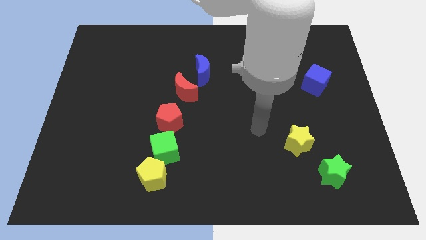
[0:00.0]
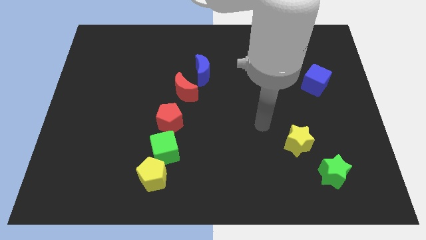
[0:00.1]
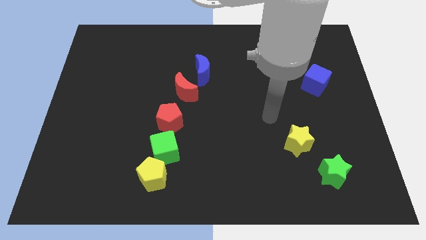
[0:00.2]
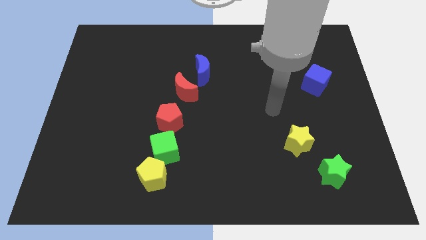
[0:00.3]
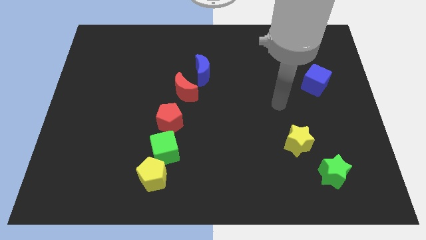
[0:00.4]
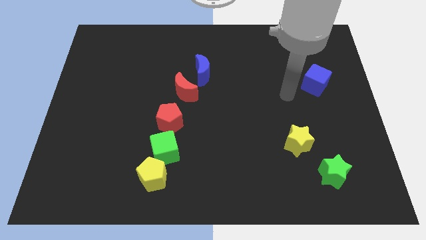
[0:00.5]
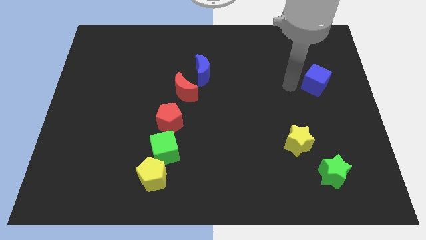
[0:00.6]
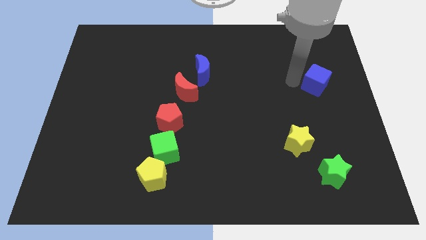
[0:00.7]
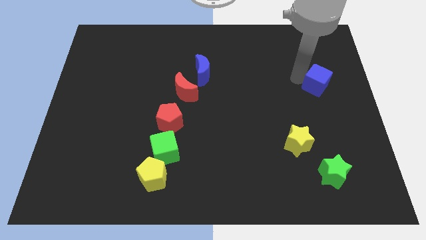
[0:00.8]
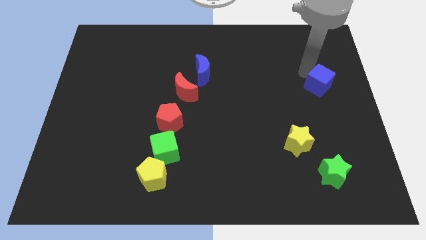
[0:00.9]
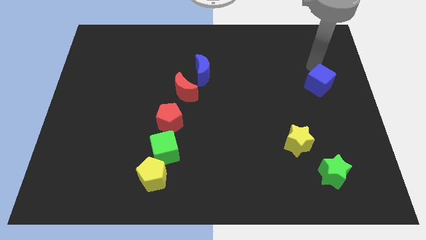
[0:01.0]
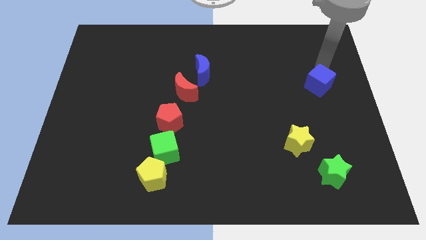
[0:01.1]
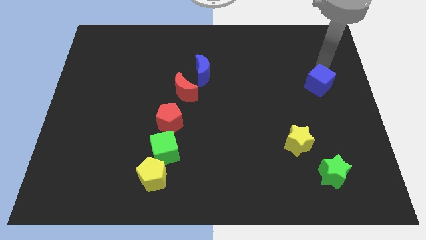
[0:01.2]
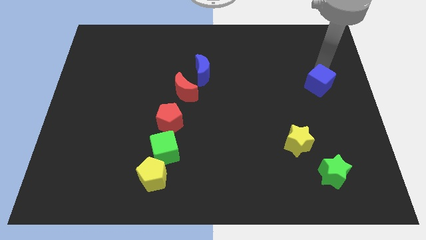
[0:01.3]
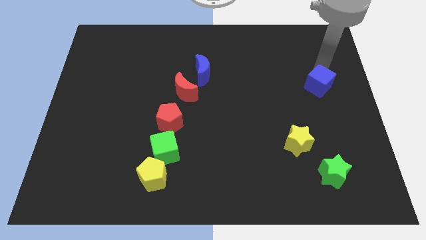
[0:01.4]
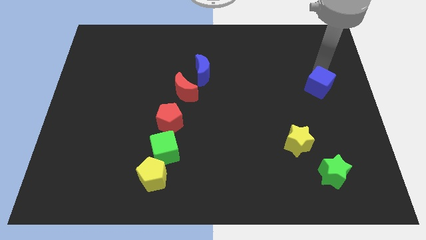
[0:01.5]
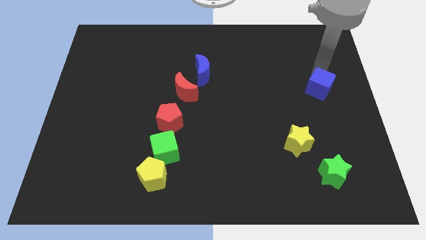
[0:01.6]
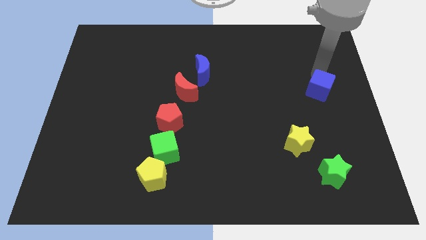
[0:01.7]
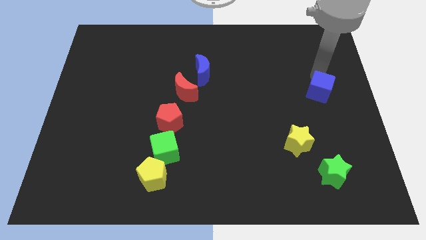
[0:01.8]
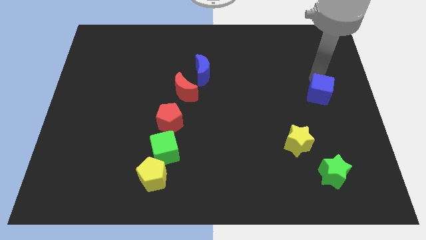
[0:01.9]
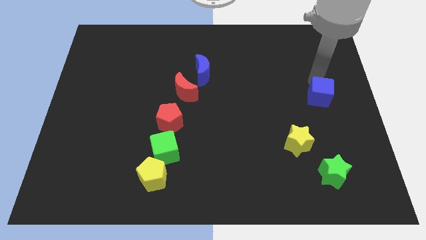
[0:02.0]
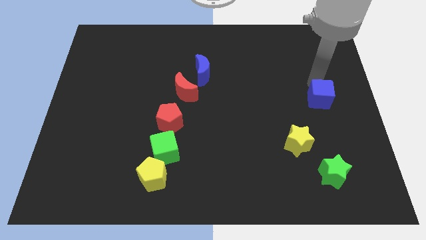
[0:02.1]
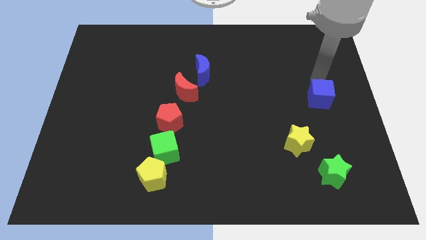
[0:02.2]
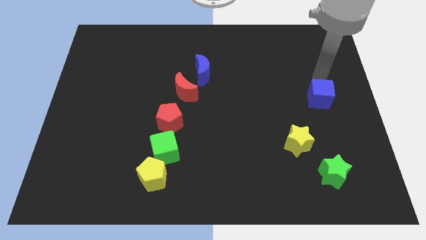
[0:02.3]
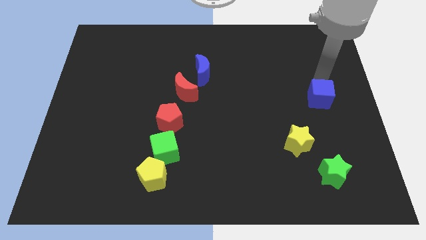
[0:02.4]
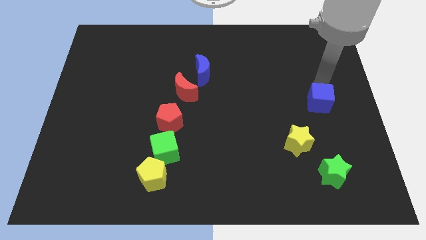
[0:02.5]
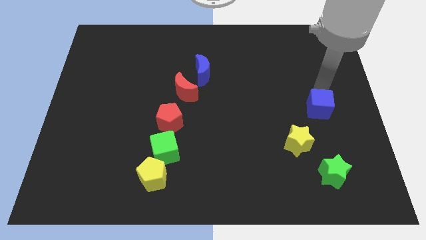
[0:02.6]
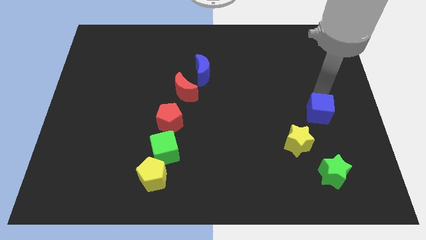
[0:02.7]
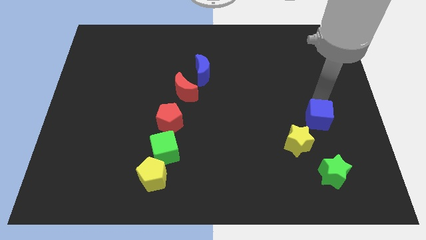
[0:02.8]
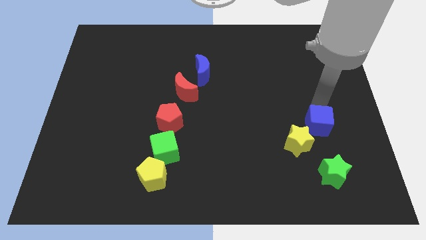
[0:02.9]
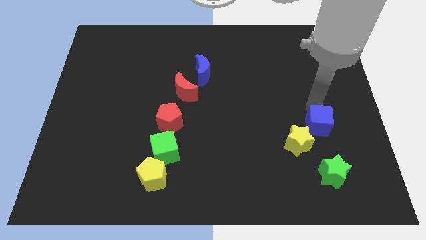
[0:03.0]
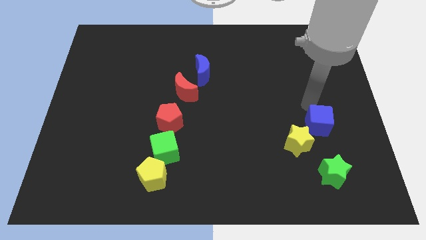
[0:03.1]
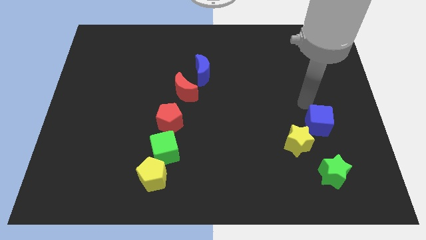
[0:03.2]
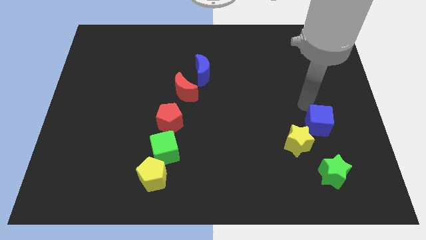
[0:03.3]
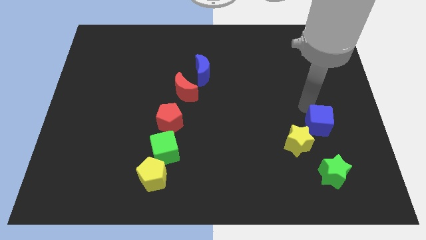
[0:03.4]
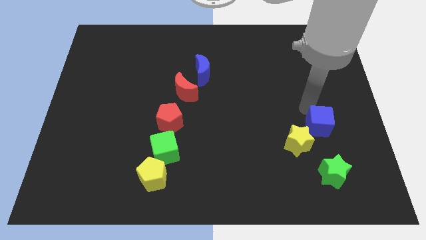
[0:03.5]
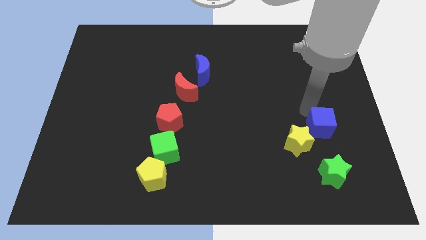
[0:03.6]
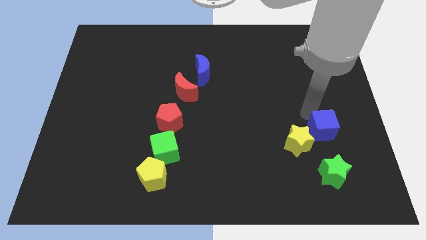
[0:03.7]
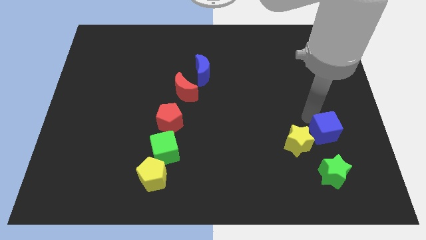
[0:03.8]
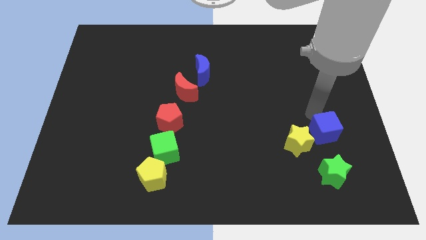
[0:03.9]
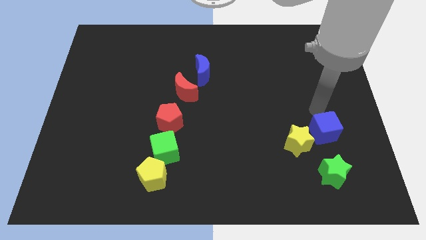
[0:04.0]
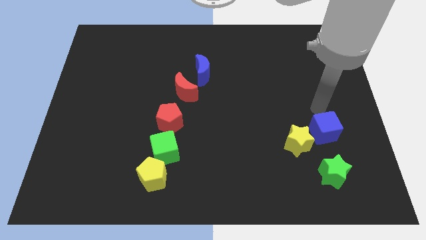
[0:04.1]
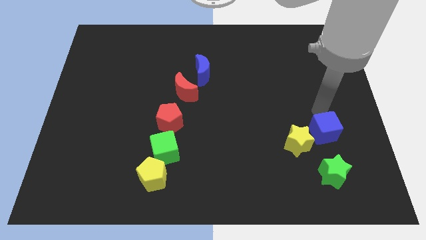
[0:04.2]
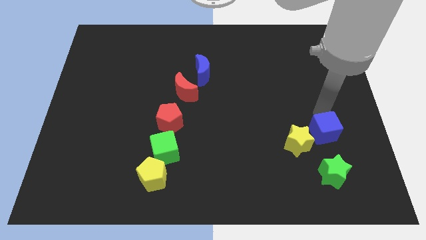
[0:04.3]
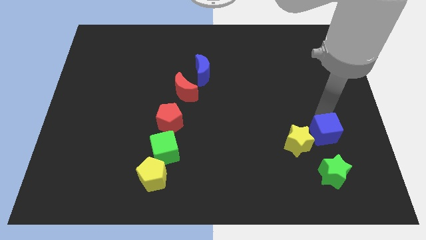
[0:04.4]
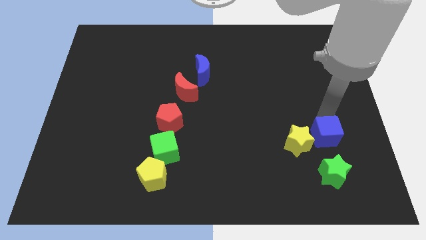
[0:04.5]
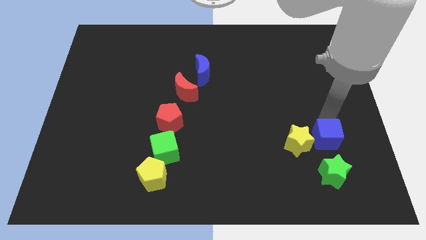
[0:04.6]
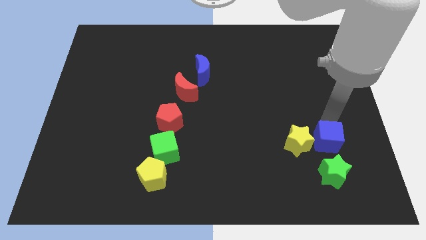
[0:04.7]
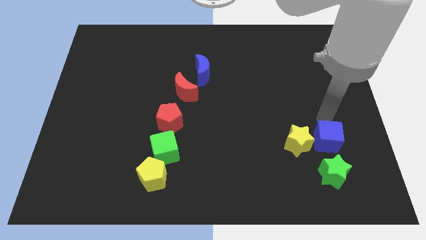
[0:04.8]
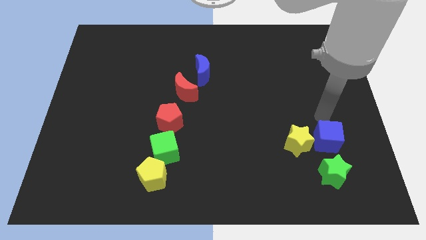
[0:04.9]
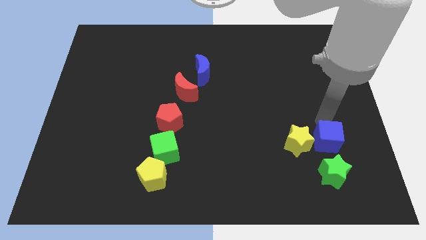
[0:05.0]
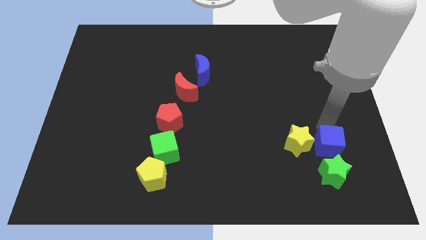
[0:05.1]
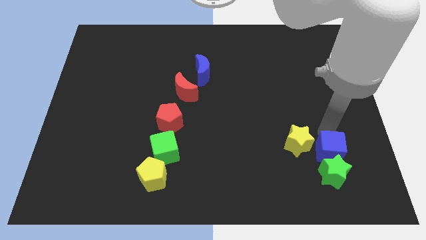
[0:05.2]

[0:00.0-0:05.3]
move the blue cube next to the green star

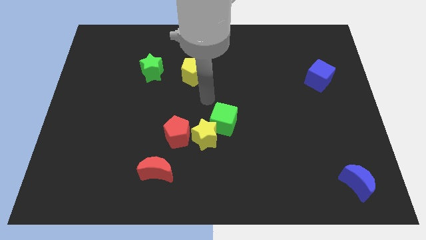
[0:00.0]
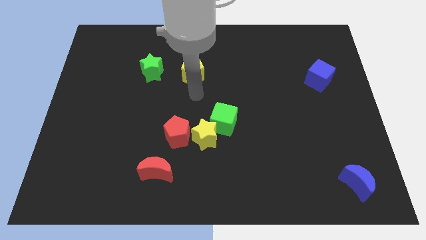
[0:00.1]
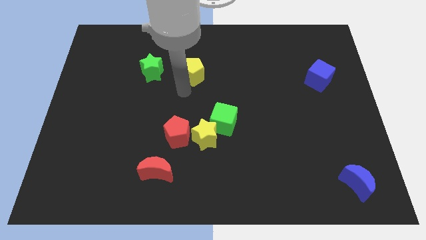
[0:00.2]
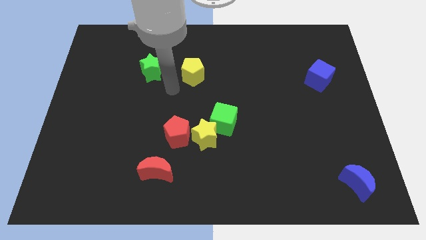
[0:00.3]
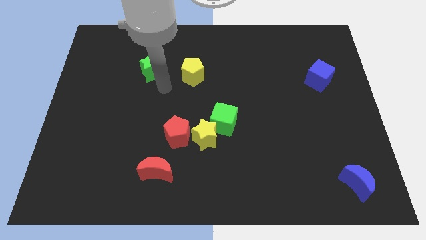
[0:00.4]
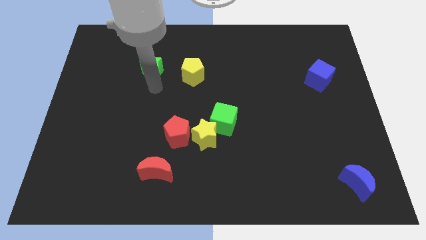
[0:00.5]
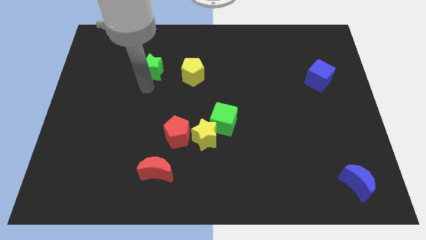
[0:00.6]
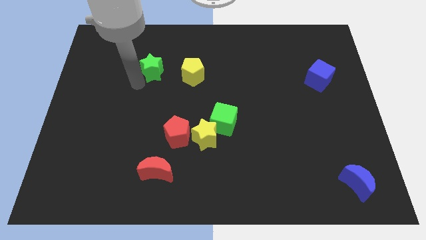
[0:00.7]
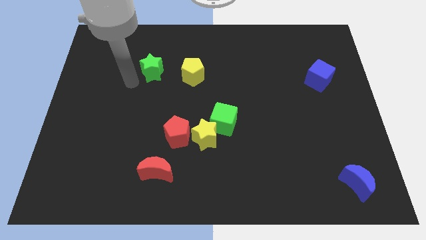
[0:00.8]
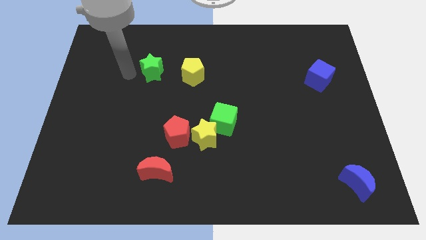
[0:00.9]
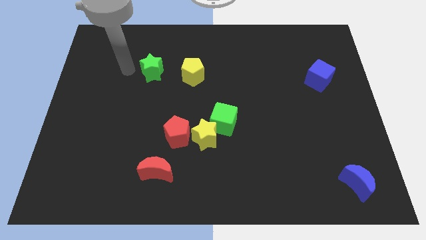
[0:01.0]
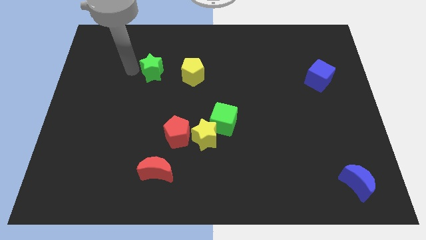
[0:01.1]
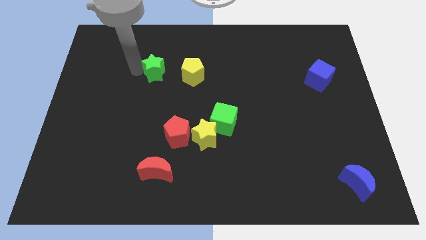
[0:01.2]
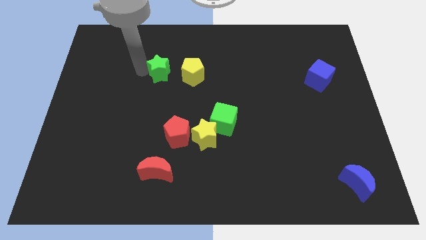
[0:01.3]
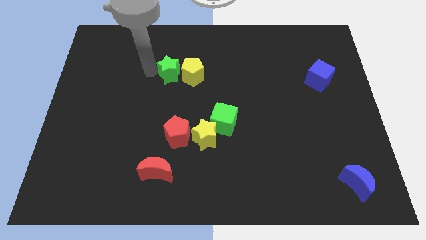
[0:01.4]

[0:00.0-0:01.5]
push the green star towards the yellow pentagon

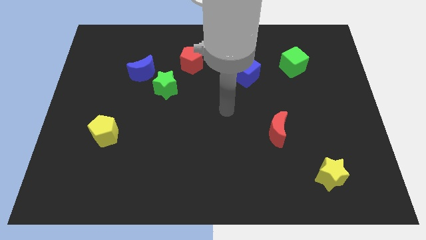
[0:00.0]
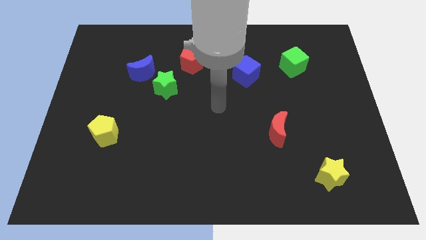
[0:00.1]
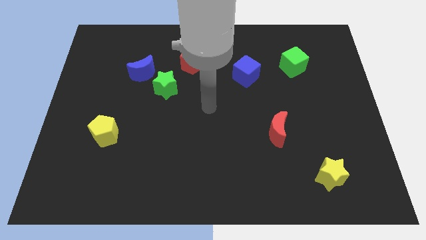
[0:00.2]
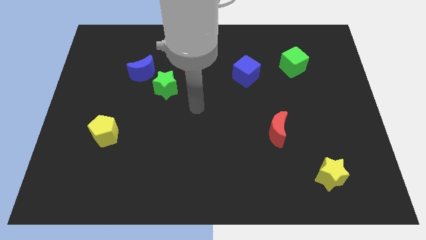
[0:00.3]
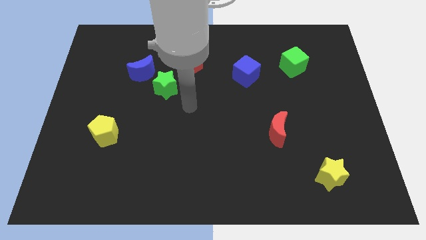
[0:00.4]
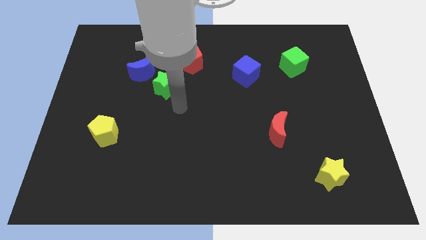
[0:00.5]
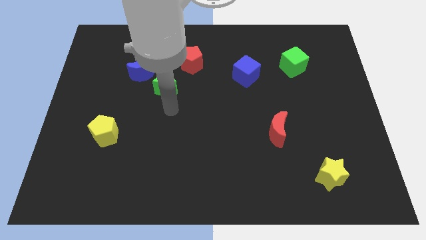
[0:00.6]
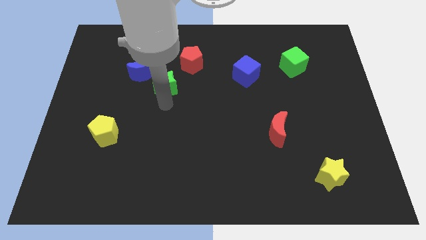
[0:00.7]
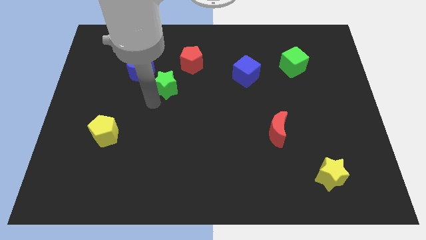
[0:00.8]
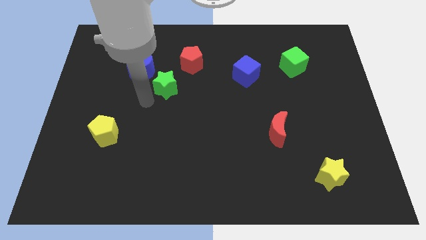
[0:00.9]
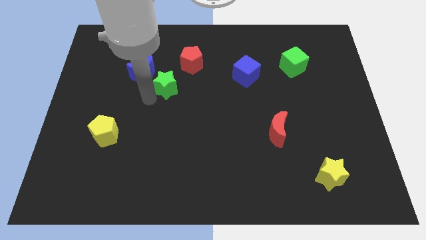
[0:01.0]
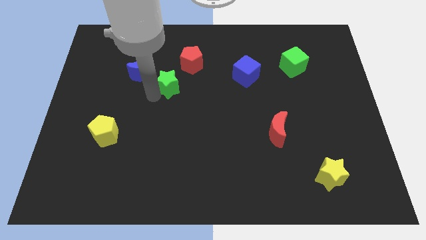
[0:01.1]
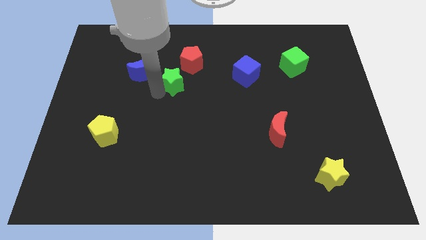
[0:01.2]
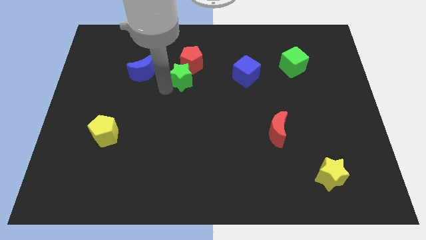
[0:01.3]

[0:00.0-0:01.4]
put the green star close to the red pentagon
